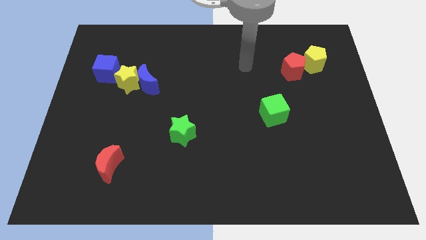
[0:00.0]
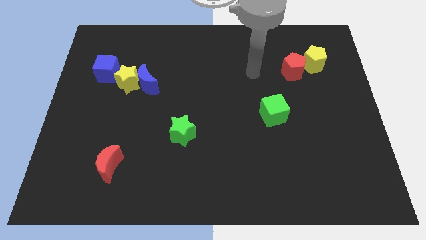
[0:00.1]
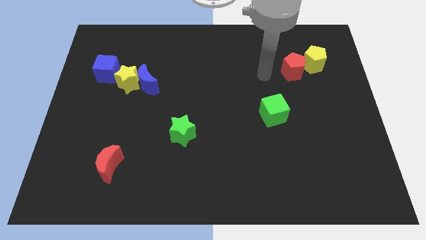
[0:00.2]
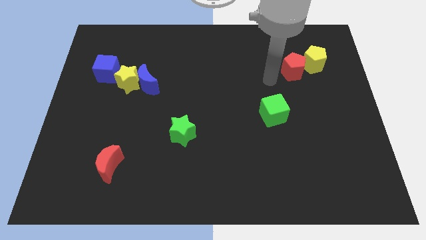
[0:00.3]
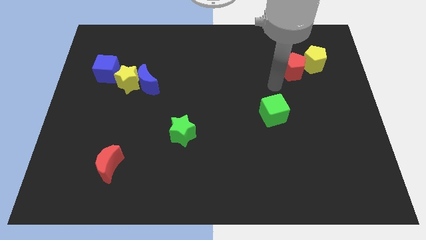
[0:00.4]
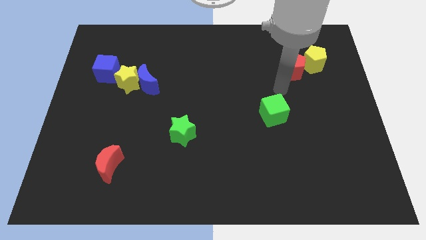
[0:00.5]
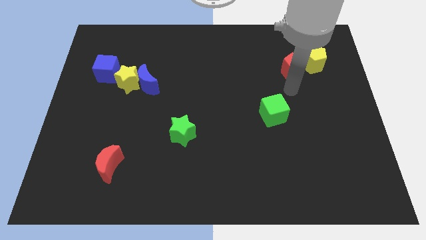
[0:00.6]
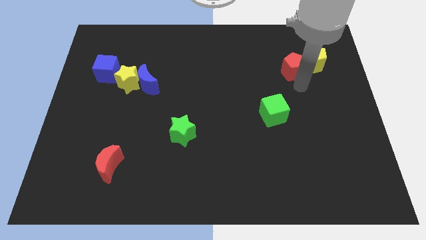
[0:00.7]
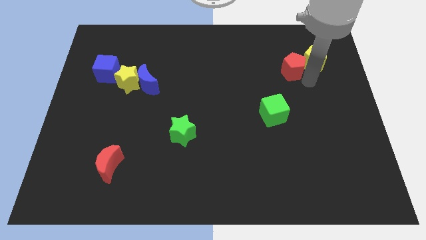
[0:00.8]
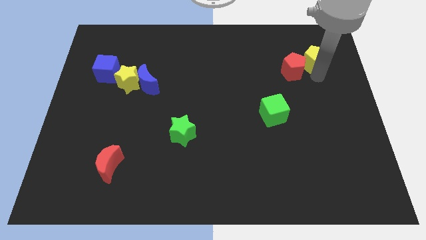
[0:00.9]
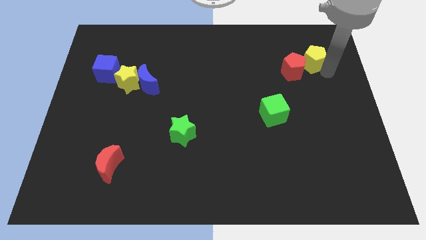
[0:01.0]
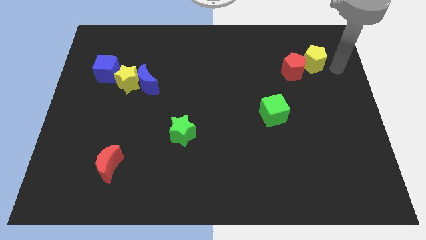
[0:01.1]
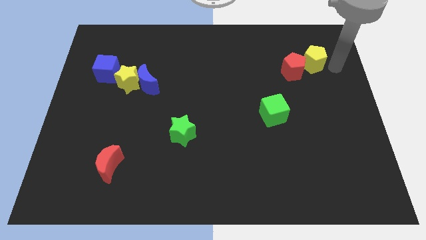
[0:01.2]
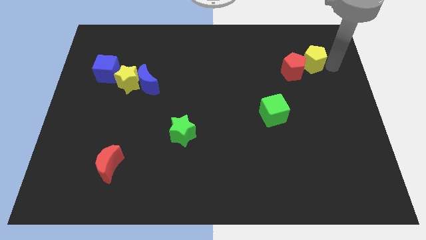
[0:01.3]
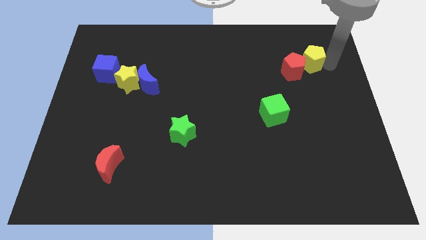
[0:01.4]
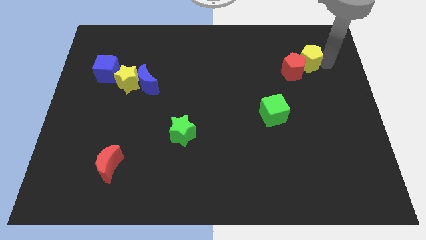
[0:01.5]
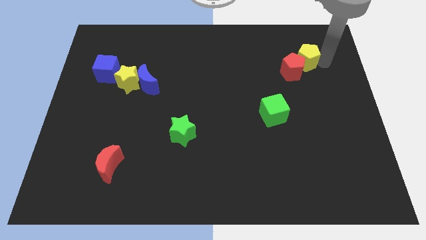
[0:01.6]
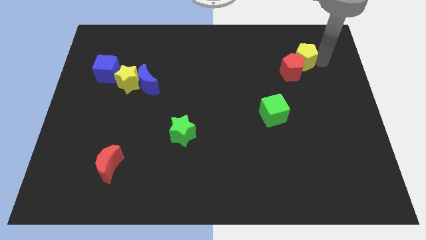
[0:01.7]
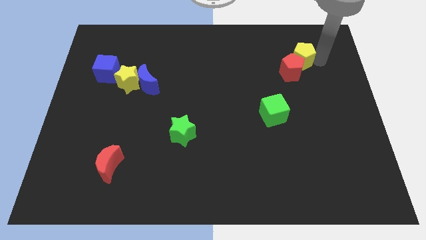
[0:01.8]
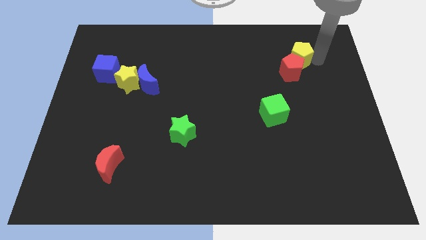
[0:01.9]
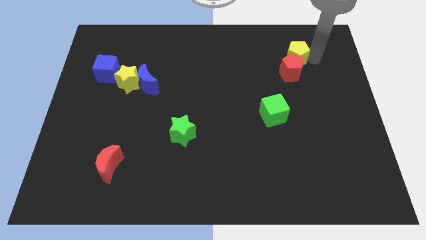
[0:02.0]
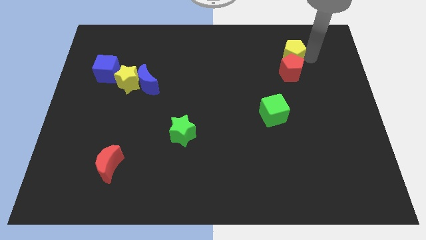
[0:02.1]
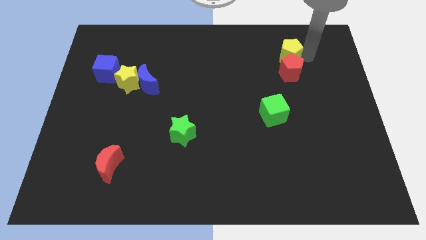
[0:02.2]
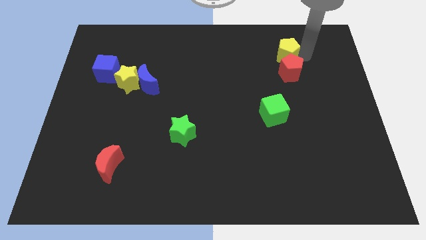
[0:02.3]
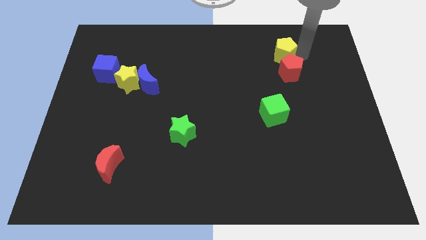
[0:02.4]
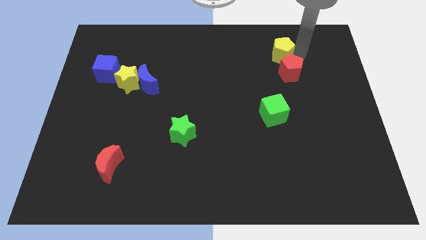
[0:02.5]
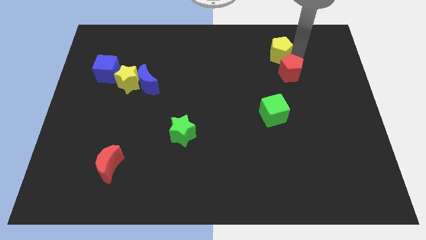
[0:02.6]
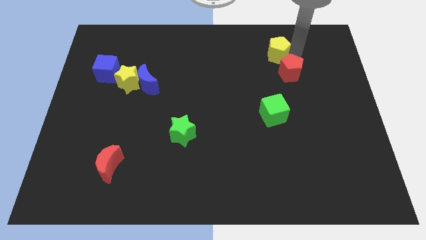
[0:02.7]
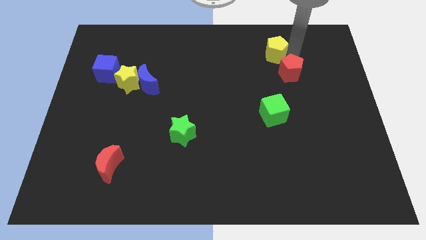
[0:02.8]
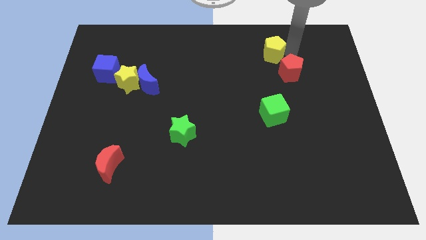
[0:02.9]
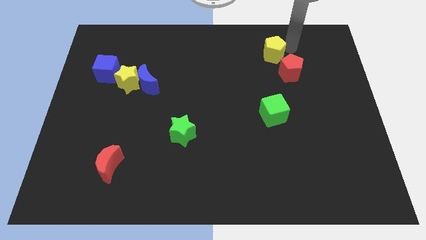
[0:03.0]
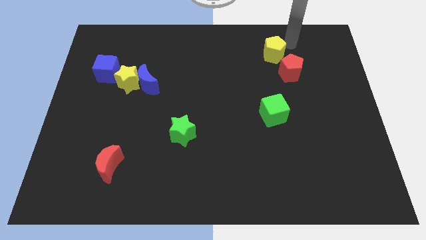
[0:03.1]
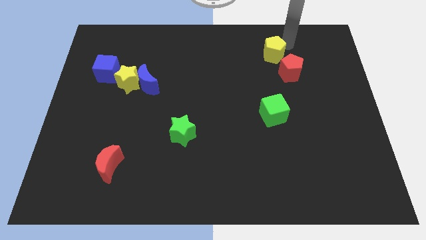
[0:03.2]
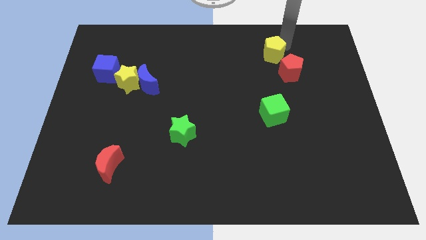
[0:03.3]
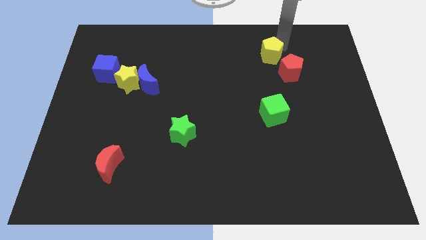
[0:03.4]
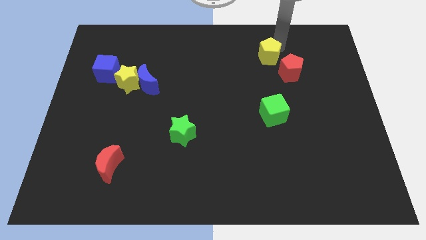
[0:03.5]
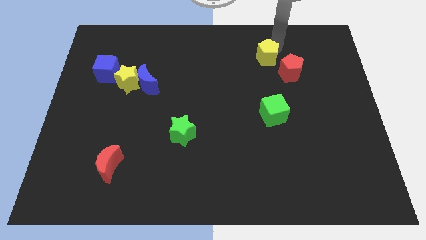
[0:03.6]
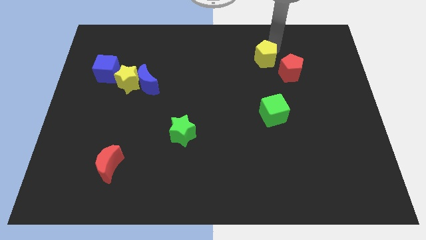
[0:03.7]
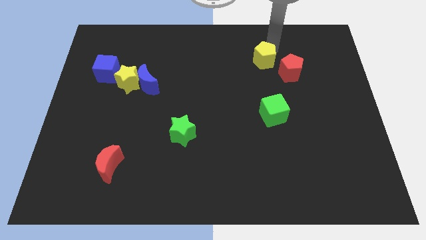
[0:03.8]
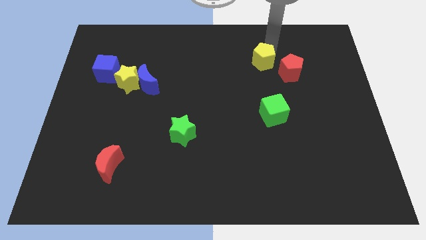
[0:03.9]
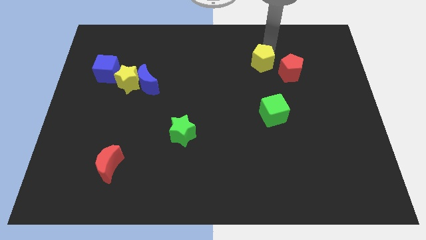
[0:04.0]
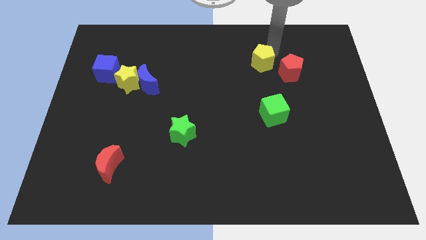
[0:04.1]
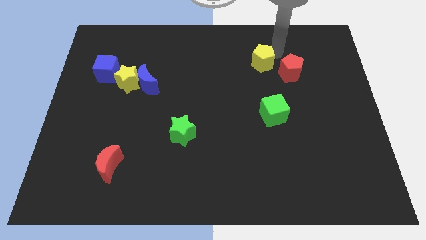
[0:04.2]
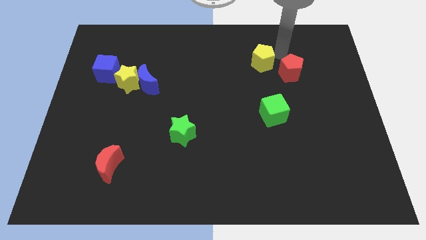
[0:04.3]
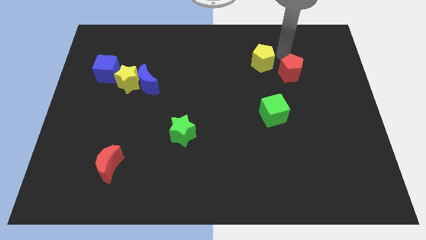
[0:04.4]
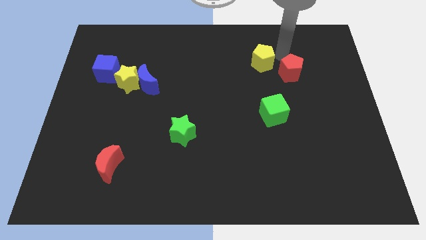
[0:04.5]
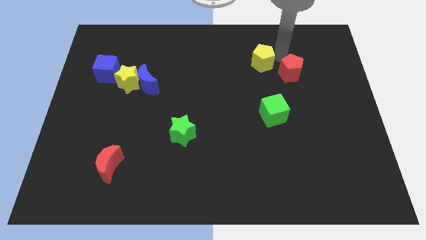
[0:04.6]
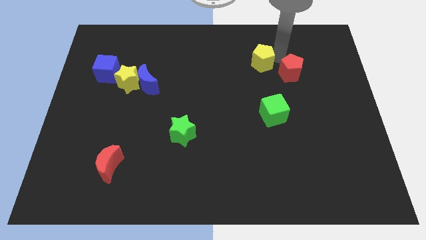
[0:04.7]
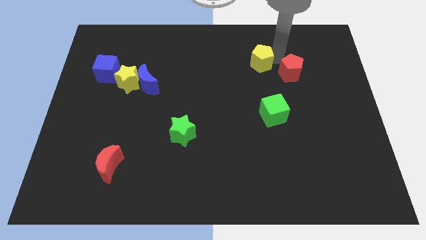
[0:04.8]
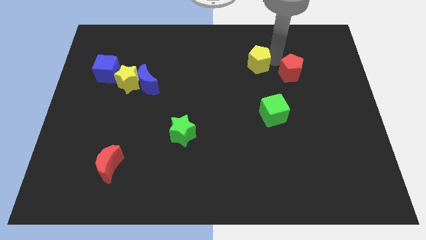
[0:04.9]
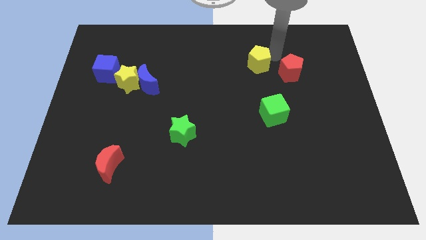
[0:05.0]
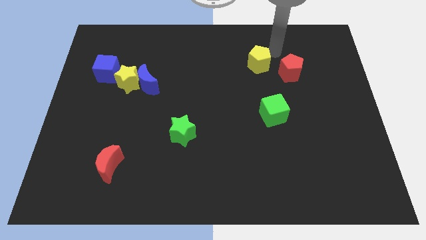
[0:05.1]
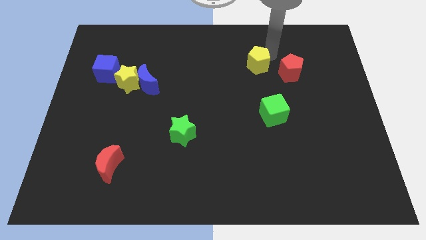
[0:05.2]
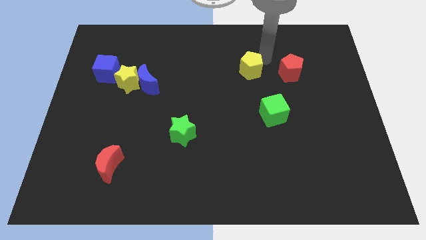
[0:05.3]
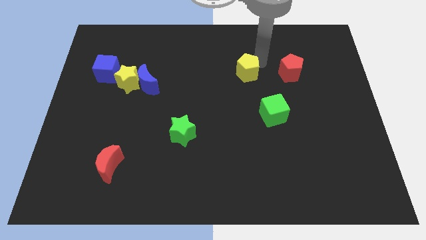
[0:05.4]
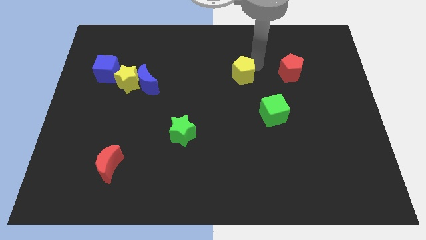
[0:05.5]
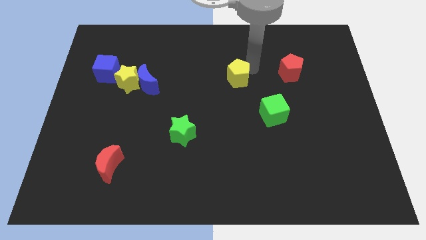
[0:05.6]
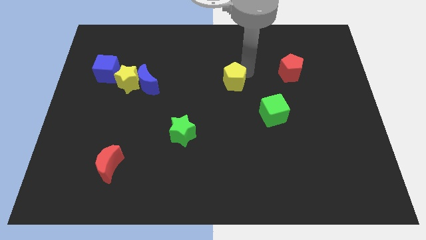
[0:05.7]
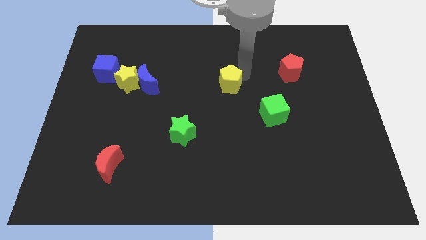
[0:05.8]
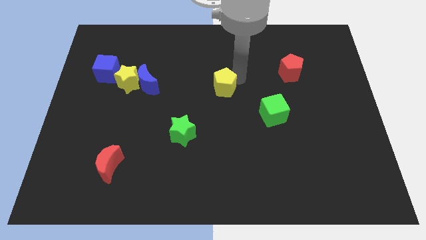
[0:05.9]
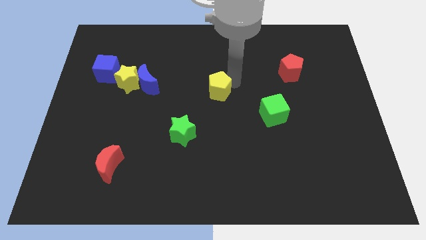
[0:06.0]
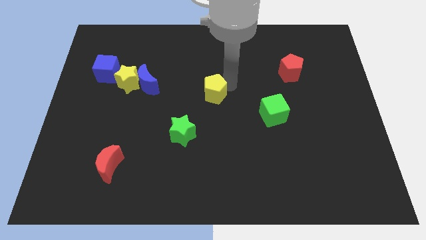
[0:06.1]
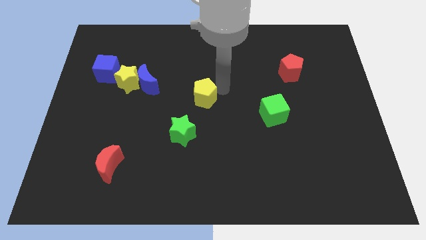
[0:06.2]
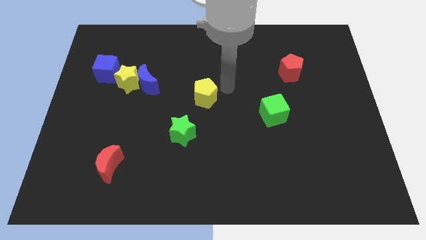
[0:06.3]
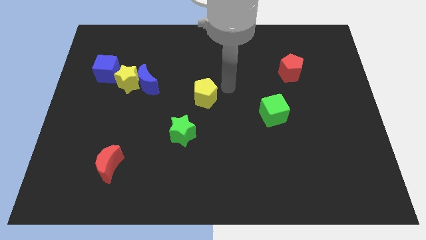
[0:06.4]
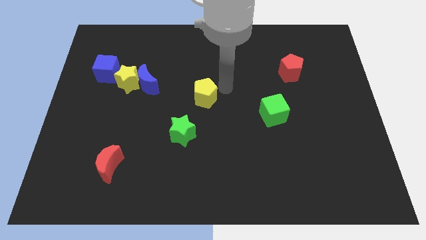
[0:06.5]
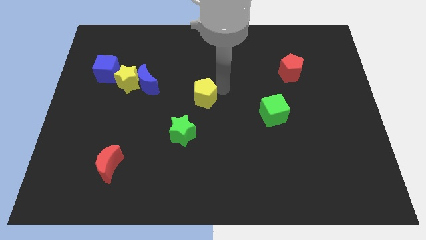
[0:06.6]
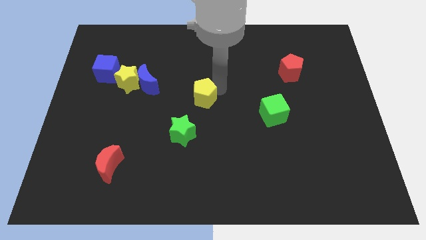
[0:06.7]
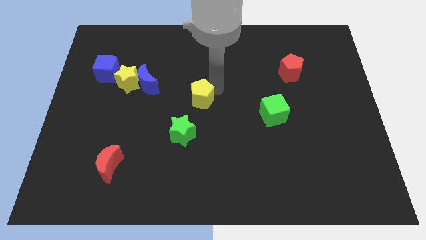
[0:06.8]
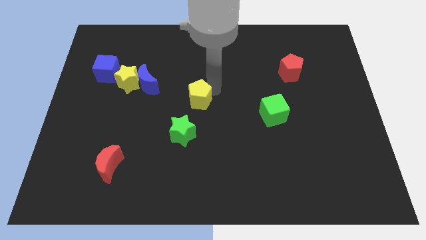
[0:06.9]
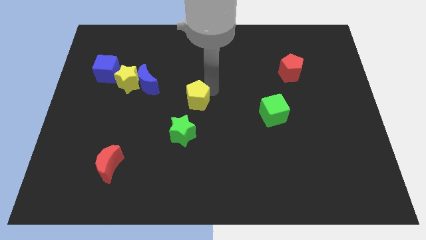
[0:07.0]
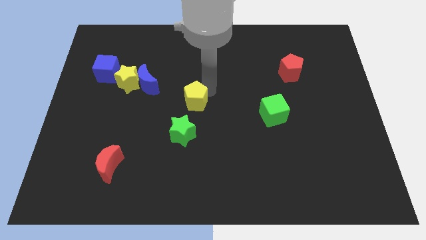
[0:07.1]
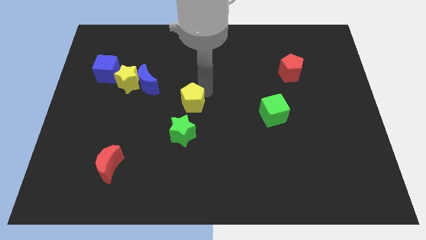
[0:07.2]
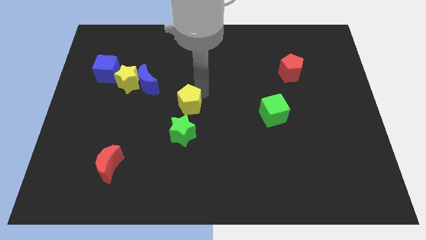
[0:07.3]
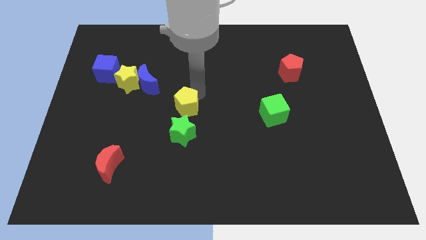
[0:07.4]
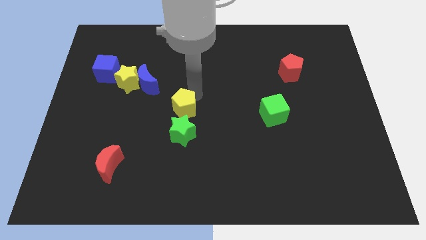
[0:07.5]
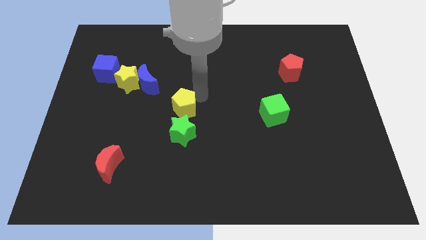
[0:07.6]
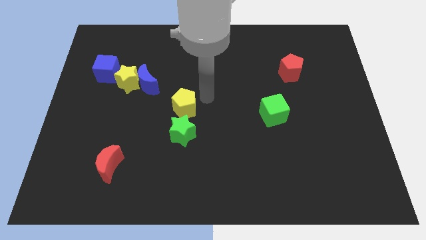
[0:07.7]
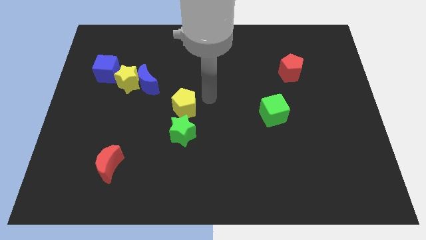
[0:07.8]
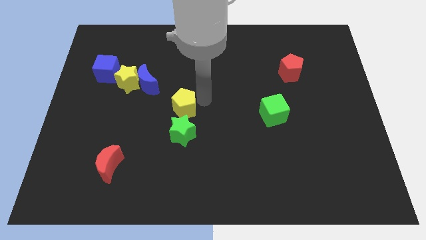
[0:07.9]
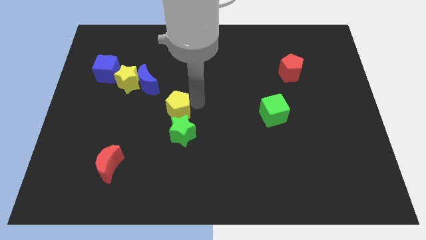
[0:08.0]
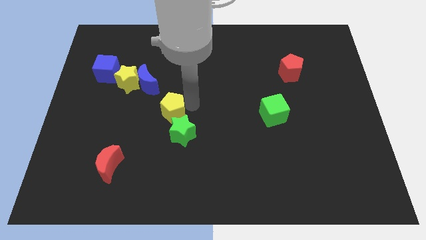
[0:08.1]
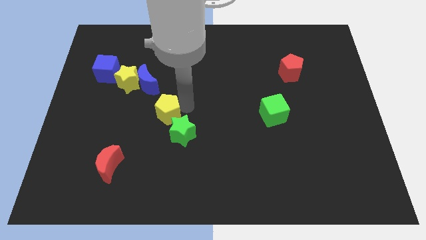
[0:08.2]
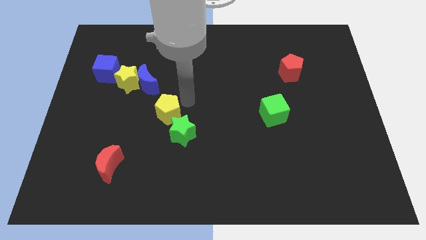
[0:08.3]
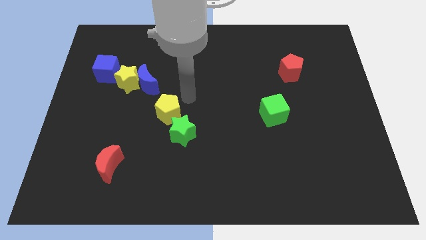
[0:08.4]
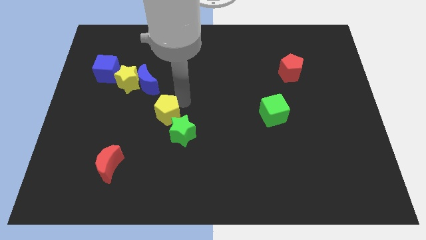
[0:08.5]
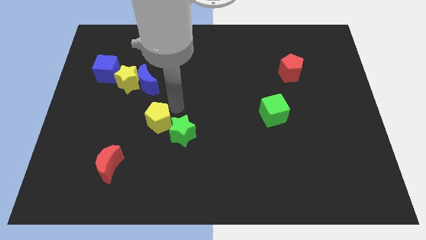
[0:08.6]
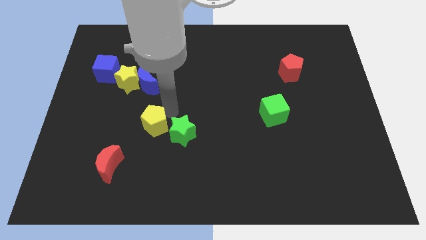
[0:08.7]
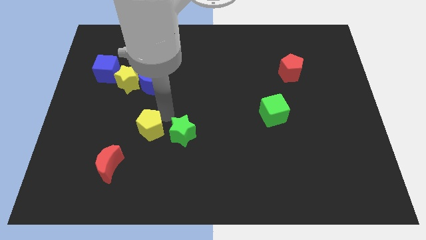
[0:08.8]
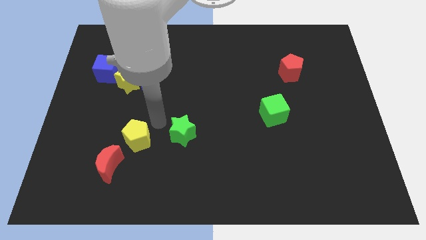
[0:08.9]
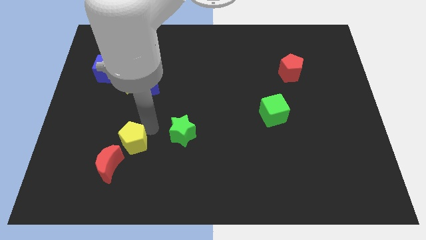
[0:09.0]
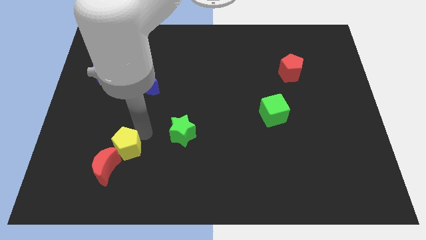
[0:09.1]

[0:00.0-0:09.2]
push the yellow pentagon next to the red moon
